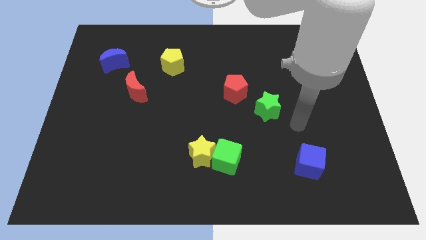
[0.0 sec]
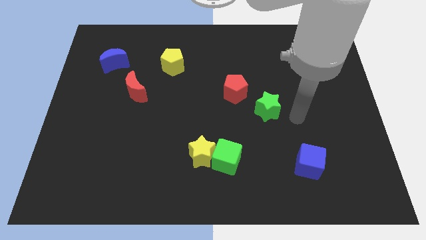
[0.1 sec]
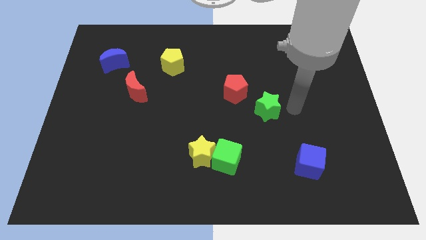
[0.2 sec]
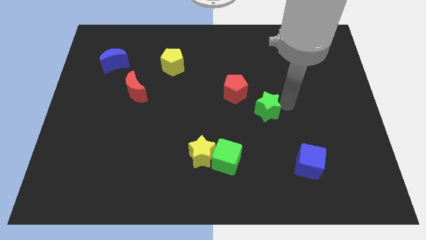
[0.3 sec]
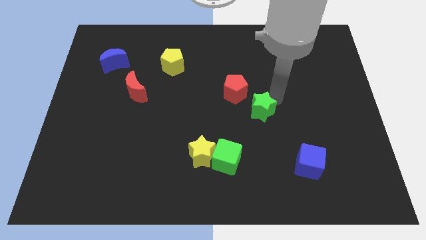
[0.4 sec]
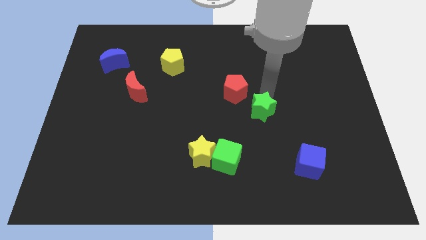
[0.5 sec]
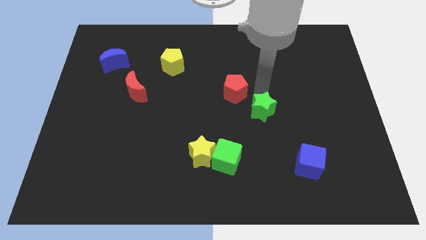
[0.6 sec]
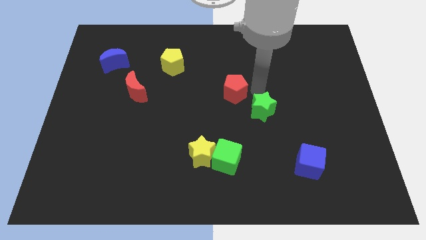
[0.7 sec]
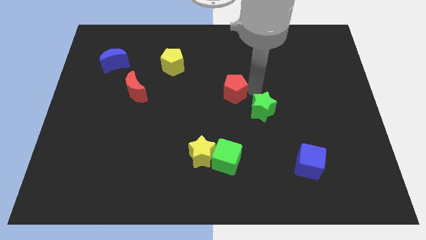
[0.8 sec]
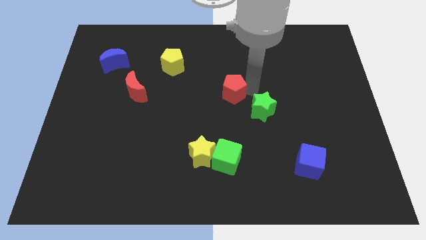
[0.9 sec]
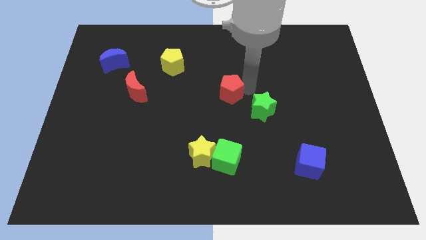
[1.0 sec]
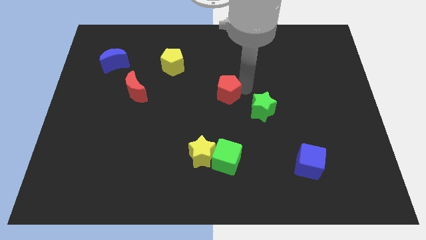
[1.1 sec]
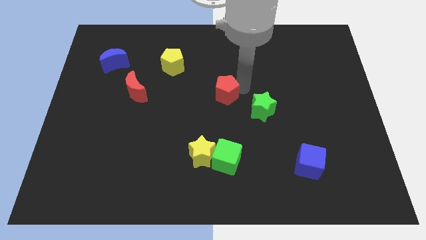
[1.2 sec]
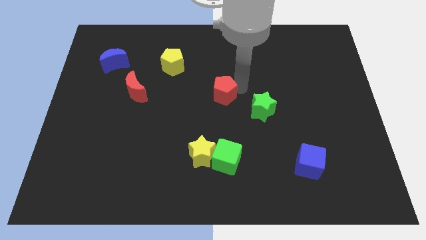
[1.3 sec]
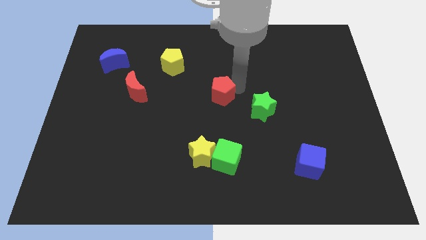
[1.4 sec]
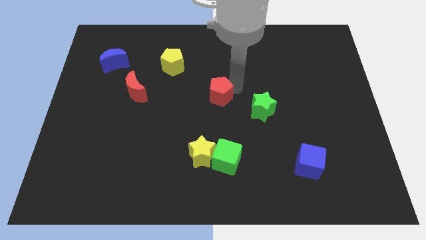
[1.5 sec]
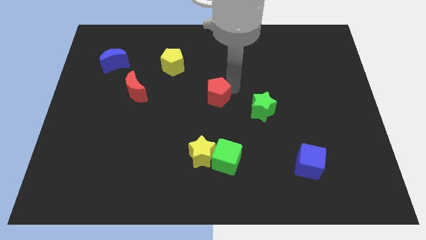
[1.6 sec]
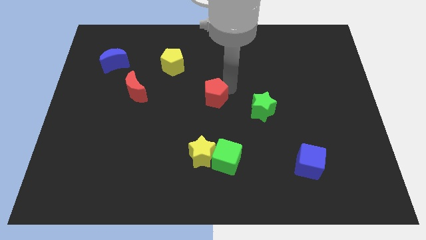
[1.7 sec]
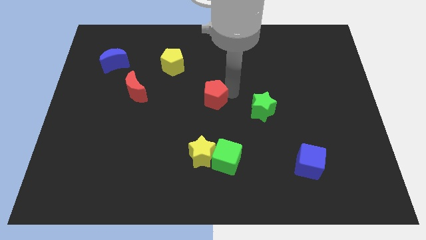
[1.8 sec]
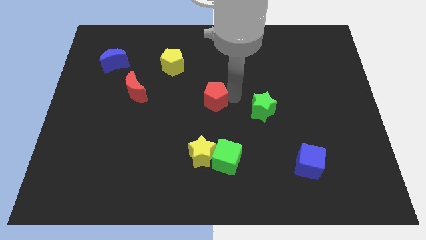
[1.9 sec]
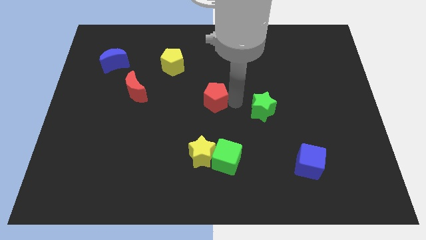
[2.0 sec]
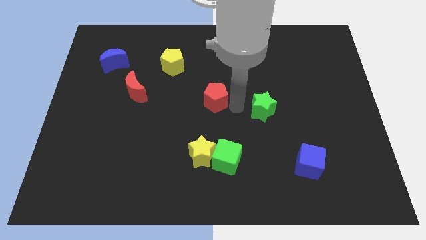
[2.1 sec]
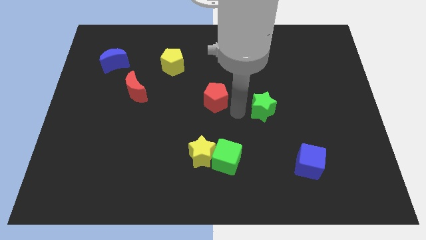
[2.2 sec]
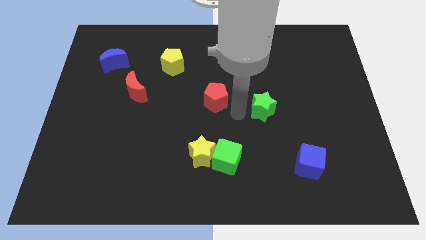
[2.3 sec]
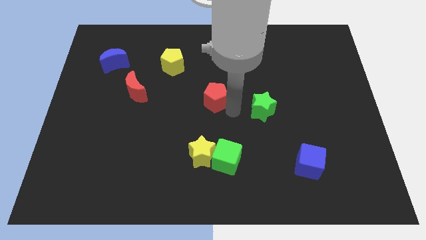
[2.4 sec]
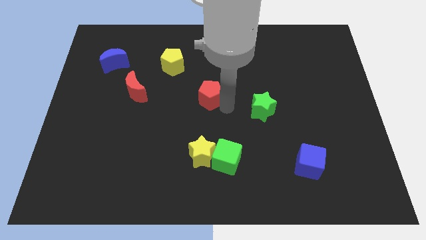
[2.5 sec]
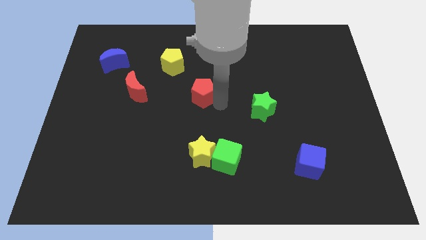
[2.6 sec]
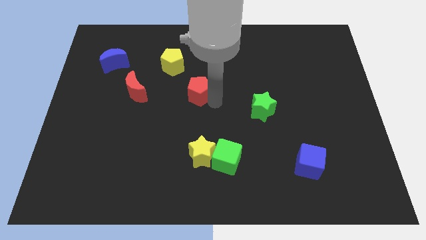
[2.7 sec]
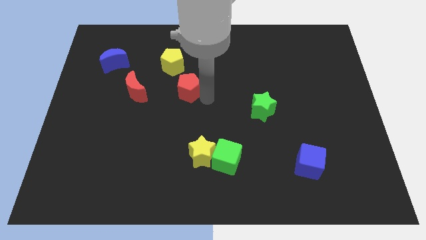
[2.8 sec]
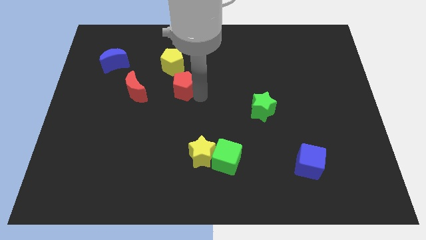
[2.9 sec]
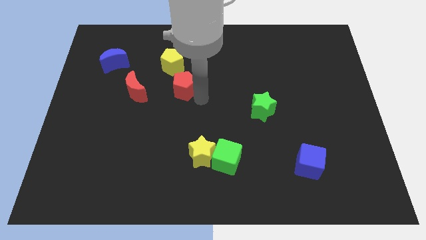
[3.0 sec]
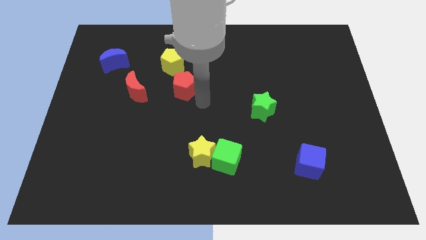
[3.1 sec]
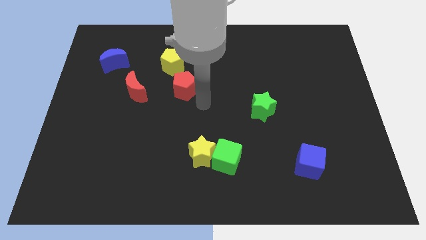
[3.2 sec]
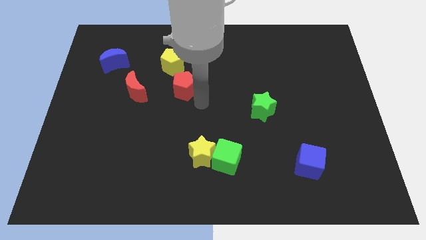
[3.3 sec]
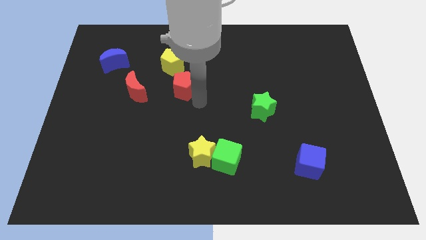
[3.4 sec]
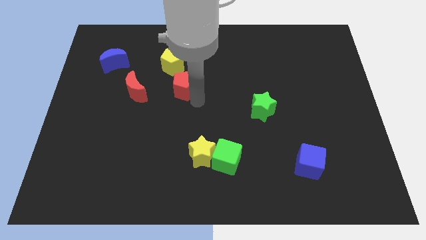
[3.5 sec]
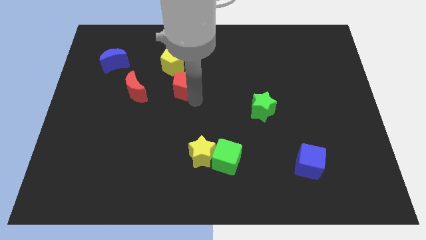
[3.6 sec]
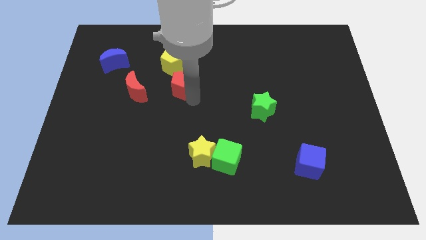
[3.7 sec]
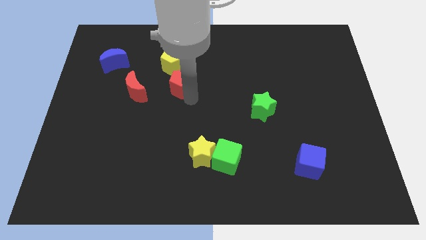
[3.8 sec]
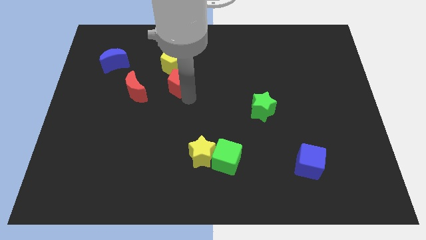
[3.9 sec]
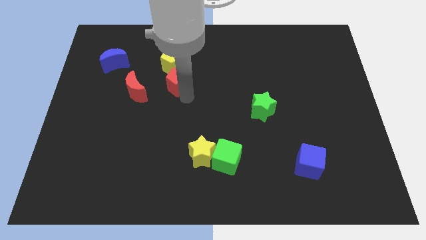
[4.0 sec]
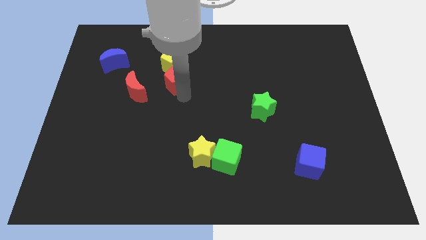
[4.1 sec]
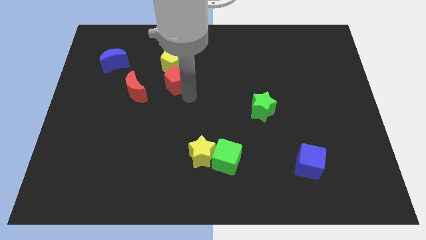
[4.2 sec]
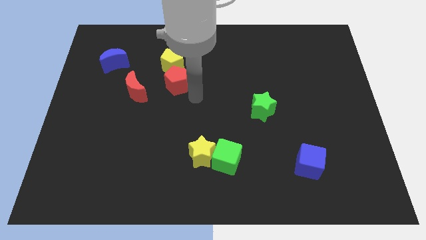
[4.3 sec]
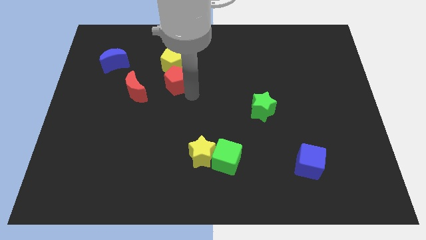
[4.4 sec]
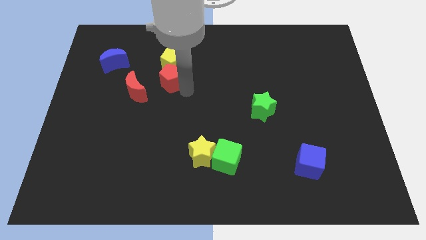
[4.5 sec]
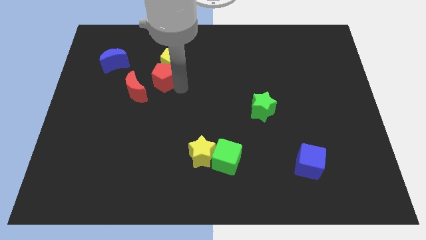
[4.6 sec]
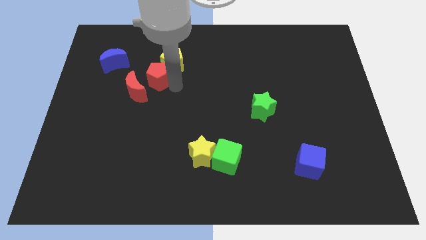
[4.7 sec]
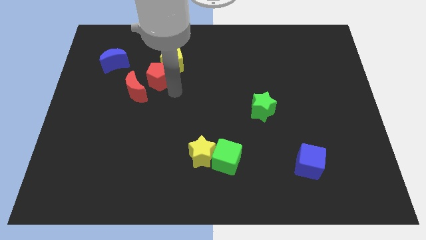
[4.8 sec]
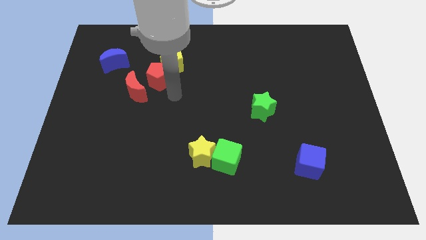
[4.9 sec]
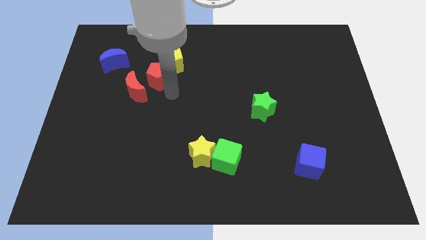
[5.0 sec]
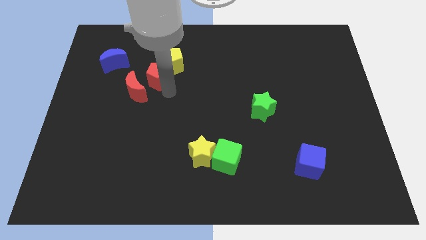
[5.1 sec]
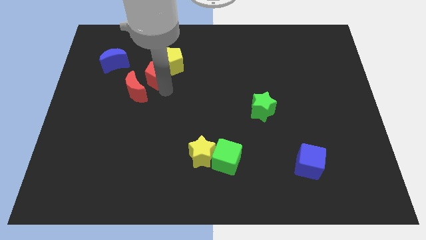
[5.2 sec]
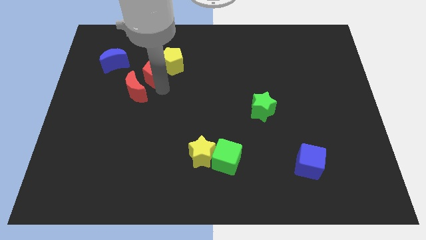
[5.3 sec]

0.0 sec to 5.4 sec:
push the red pentagon above the red moon

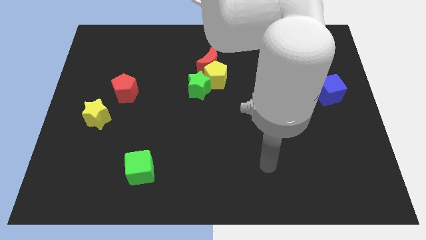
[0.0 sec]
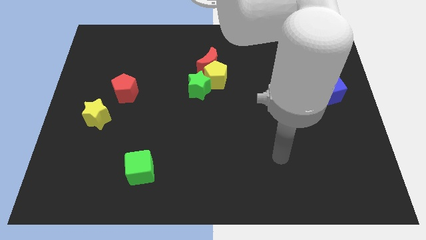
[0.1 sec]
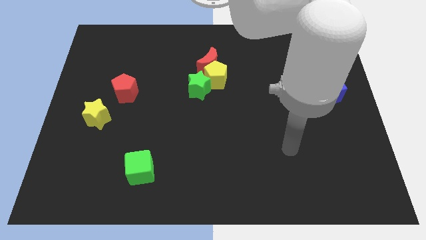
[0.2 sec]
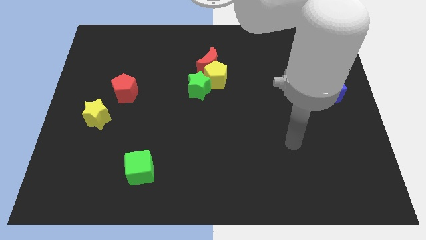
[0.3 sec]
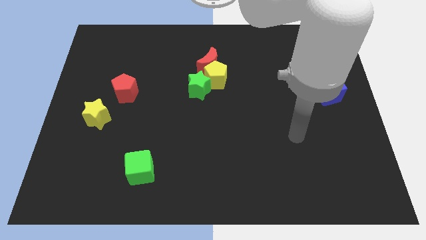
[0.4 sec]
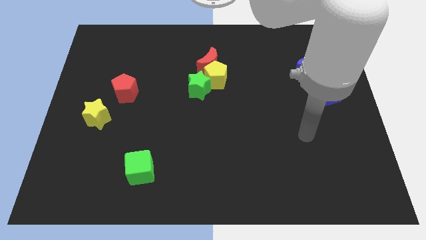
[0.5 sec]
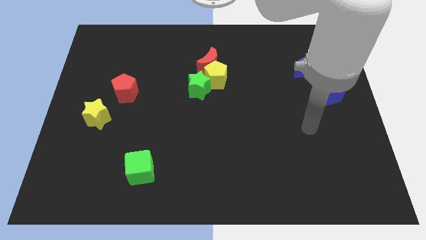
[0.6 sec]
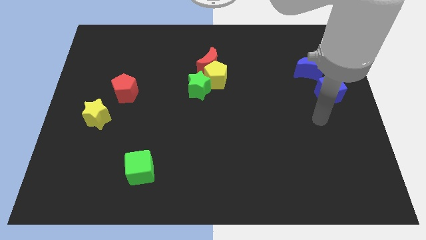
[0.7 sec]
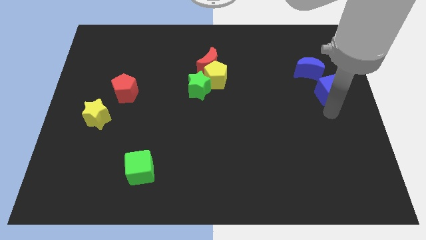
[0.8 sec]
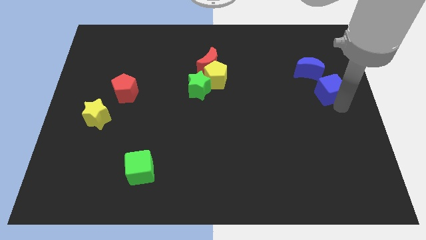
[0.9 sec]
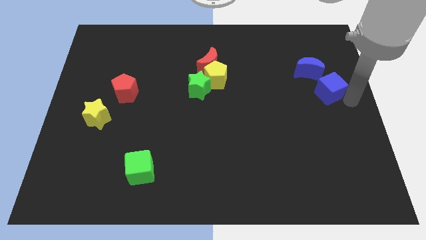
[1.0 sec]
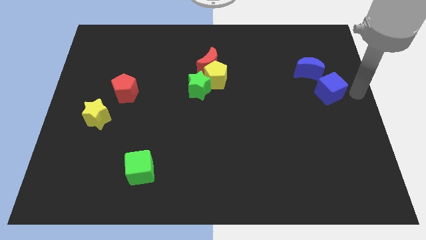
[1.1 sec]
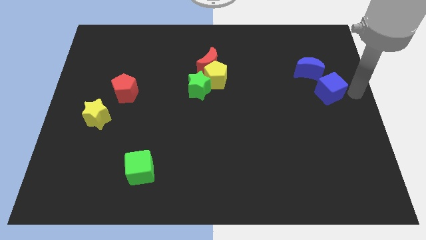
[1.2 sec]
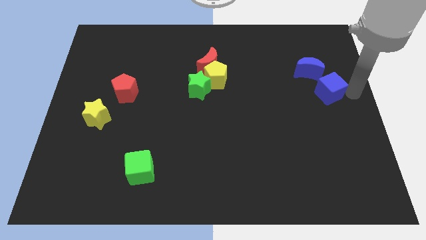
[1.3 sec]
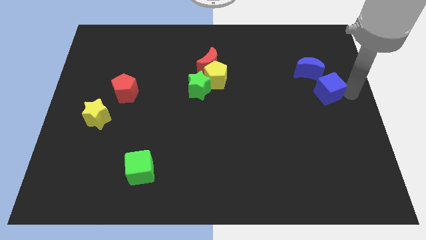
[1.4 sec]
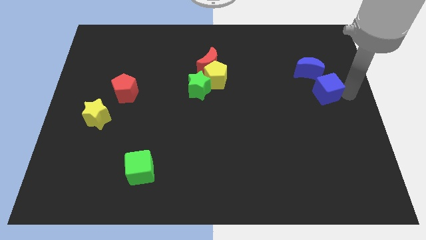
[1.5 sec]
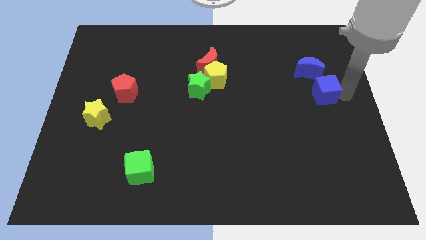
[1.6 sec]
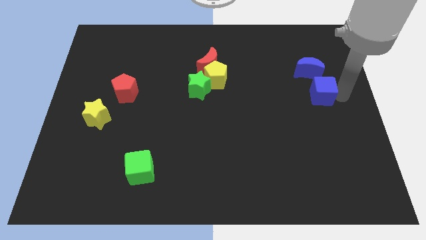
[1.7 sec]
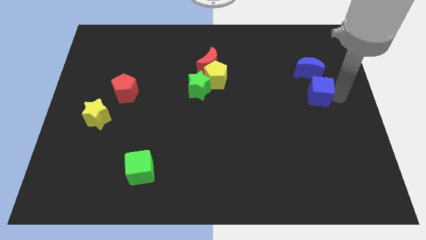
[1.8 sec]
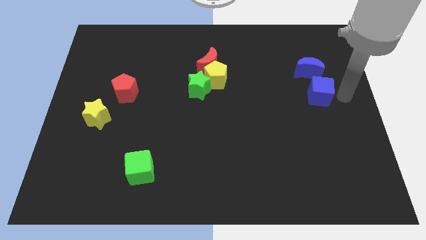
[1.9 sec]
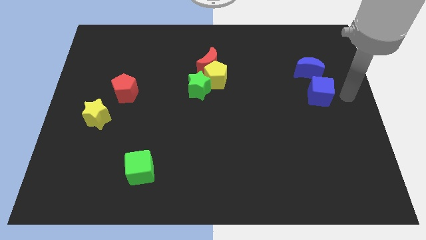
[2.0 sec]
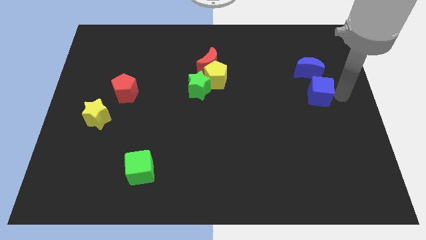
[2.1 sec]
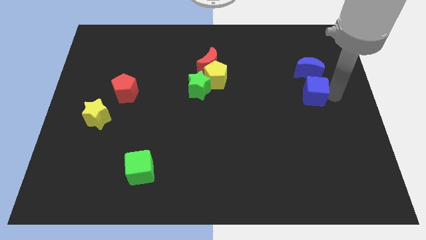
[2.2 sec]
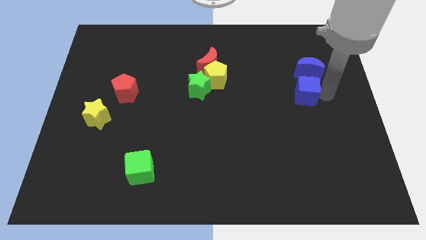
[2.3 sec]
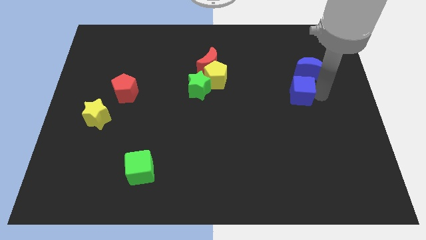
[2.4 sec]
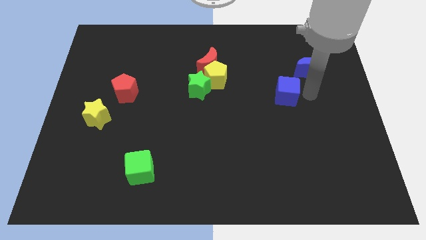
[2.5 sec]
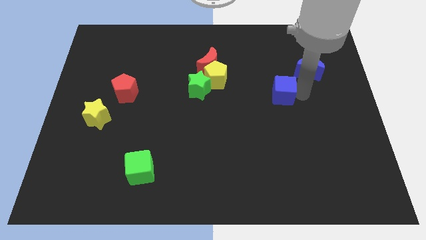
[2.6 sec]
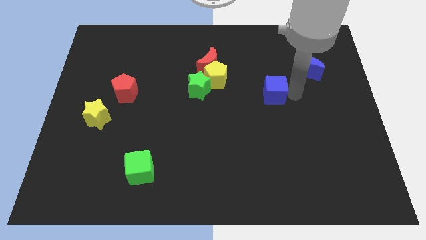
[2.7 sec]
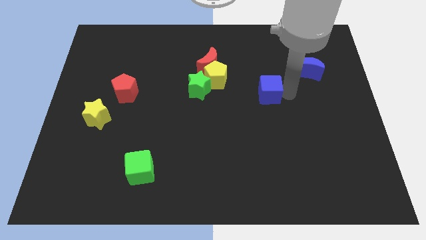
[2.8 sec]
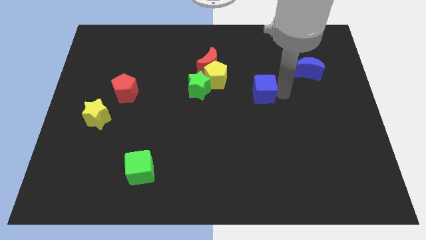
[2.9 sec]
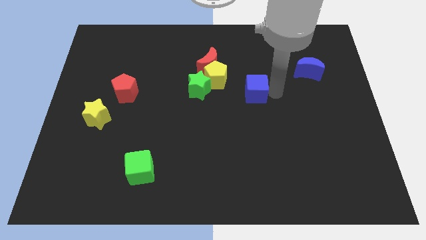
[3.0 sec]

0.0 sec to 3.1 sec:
put the blue cube to the bottom right side of the yellow pentagon
